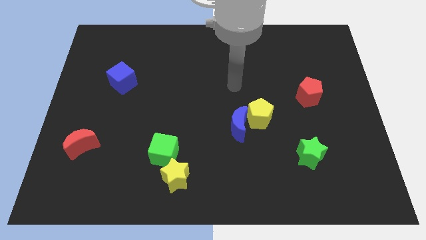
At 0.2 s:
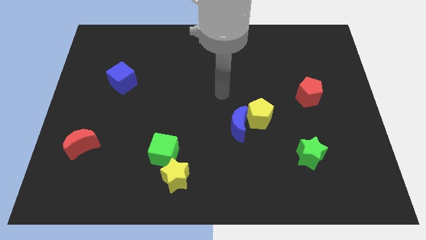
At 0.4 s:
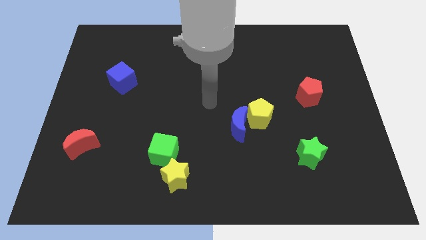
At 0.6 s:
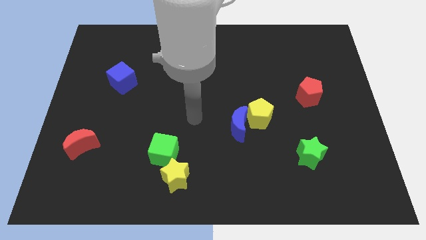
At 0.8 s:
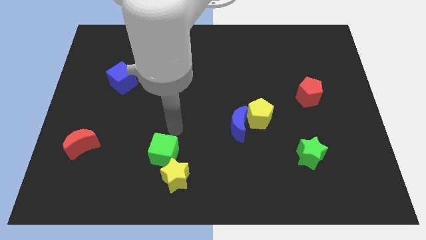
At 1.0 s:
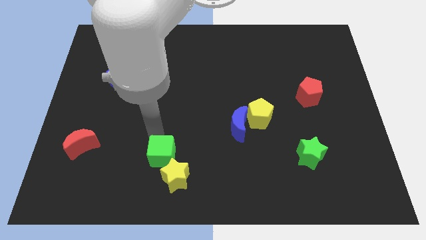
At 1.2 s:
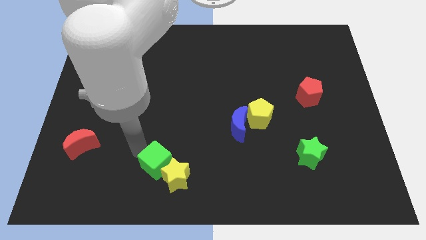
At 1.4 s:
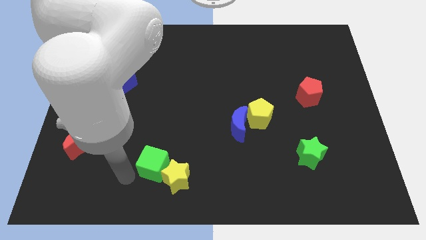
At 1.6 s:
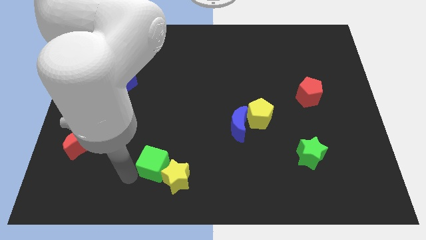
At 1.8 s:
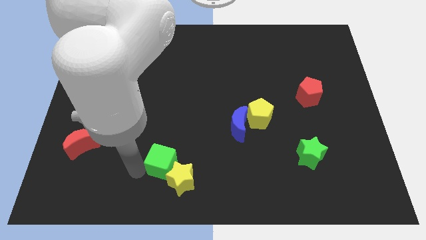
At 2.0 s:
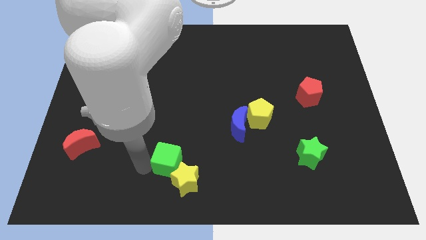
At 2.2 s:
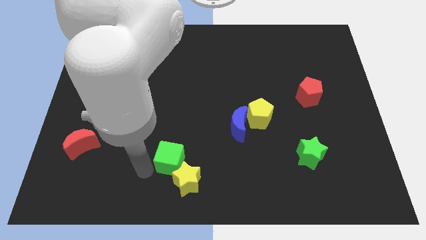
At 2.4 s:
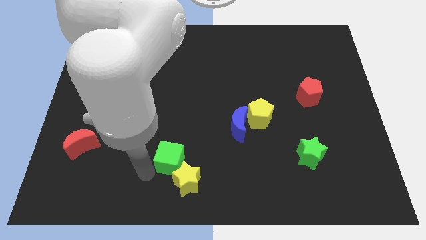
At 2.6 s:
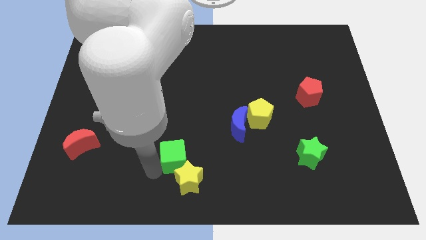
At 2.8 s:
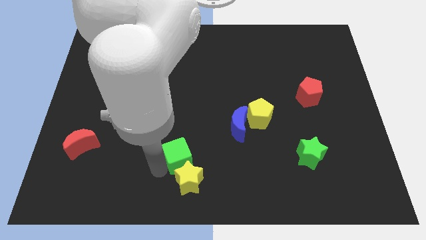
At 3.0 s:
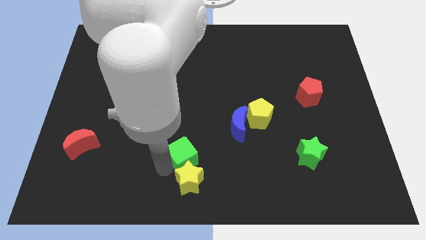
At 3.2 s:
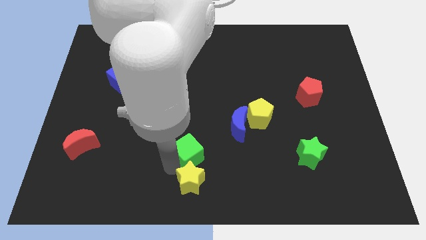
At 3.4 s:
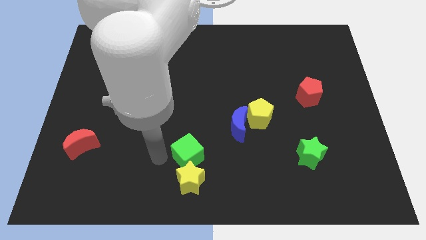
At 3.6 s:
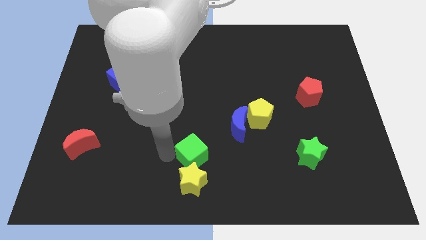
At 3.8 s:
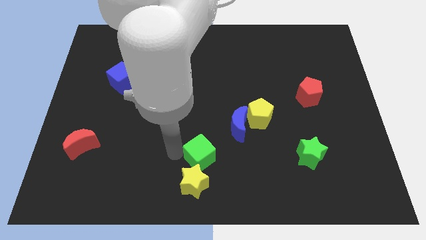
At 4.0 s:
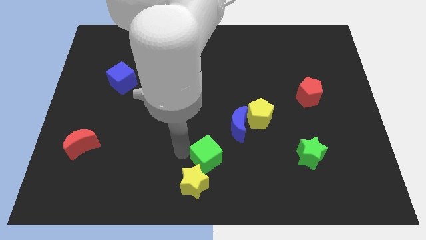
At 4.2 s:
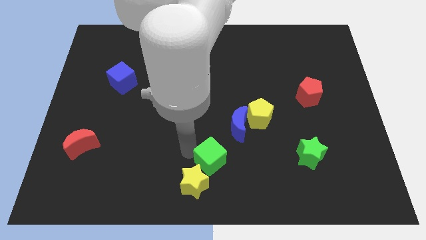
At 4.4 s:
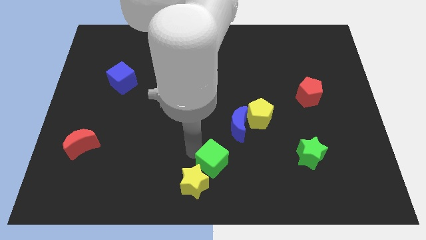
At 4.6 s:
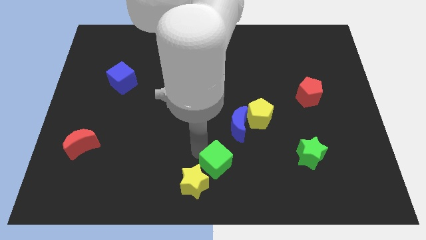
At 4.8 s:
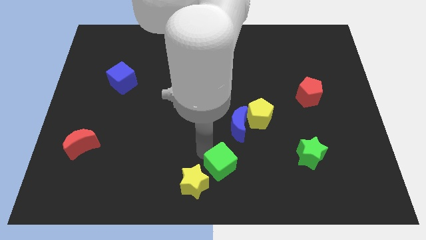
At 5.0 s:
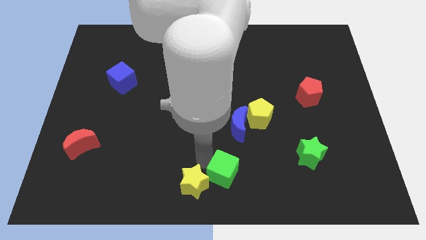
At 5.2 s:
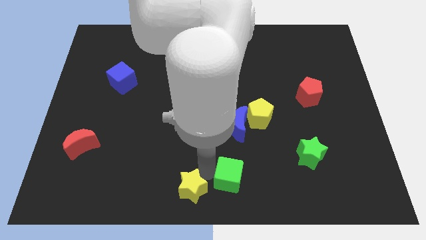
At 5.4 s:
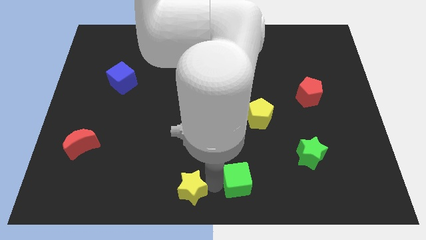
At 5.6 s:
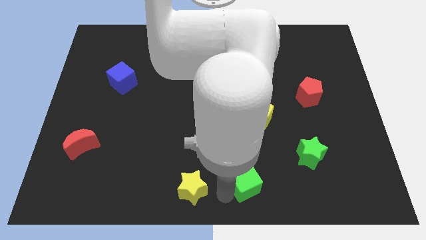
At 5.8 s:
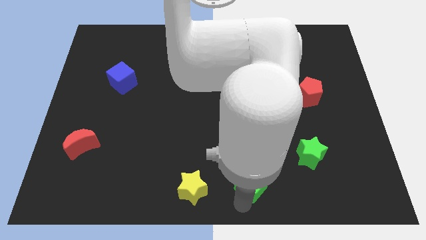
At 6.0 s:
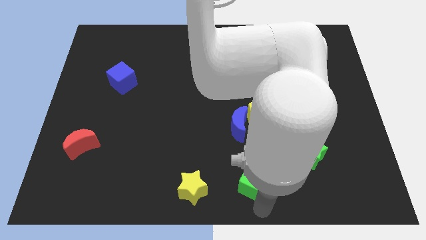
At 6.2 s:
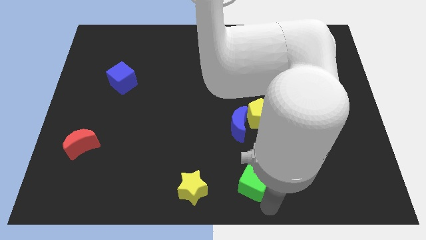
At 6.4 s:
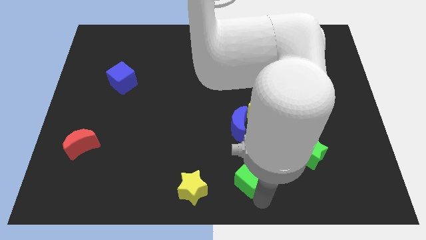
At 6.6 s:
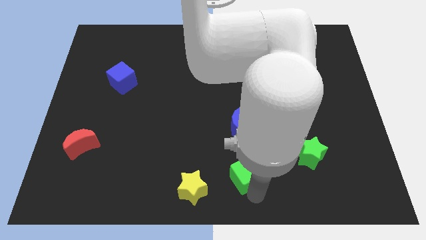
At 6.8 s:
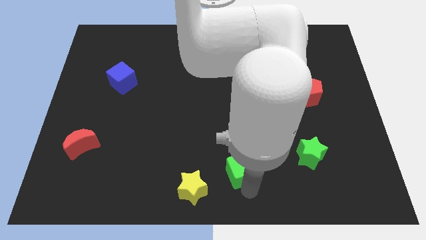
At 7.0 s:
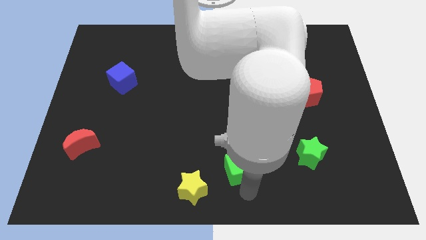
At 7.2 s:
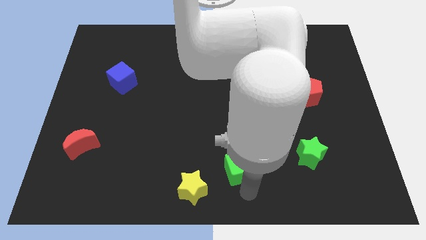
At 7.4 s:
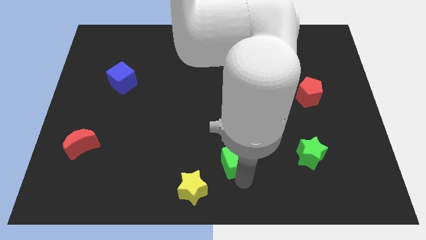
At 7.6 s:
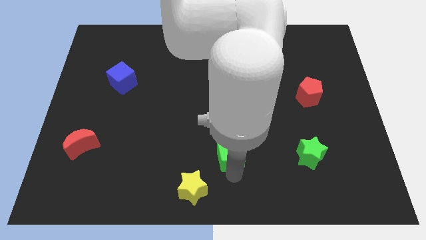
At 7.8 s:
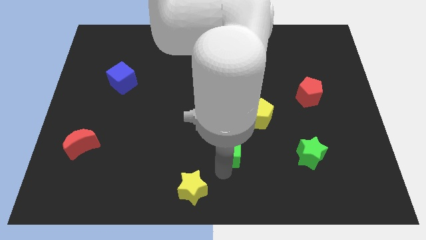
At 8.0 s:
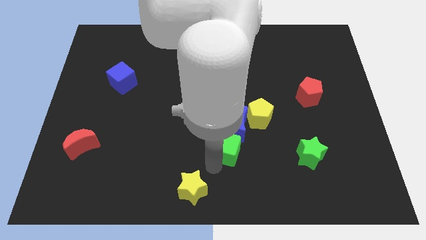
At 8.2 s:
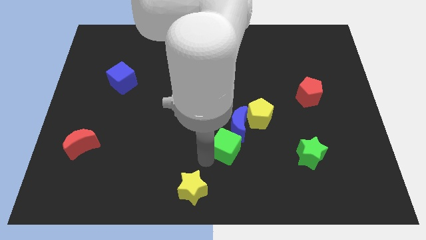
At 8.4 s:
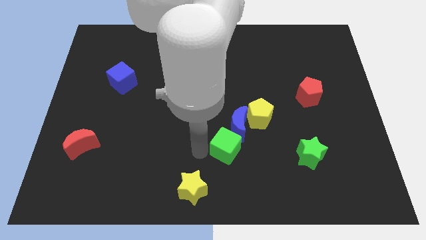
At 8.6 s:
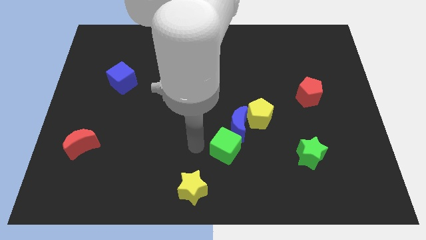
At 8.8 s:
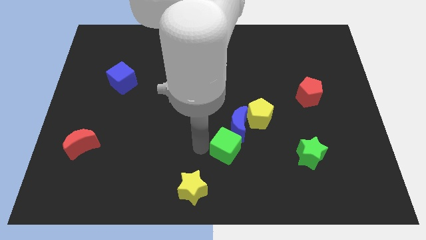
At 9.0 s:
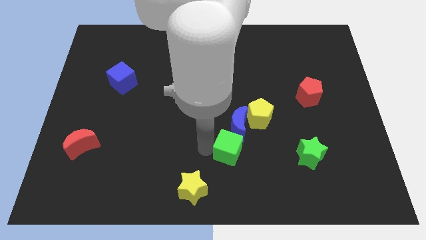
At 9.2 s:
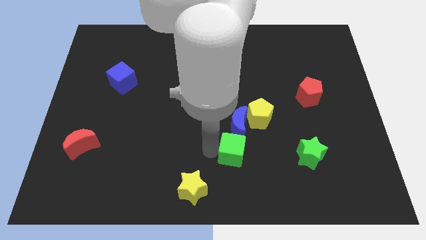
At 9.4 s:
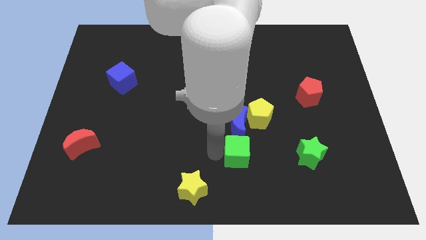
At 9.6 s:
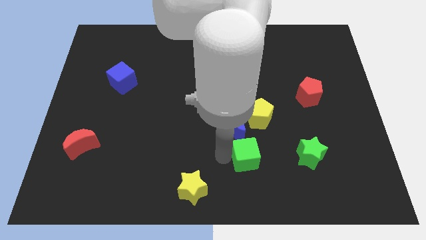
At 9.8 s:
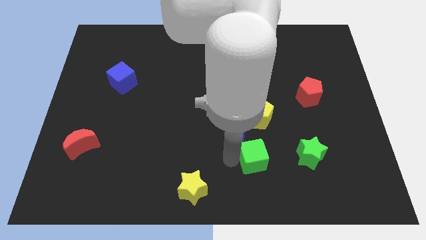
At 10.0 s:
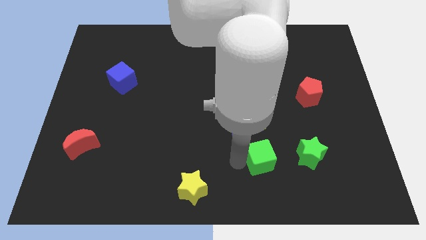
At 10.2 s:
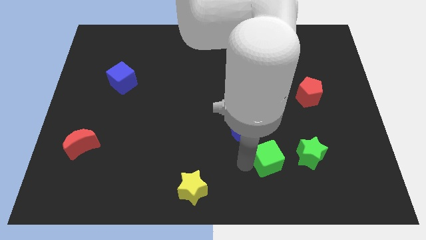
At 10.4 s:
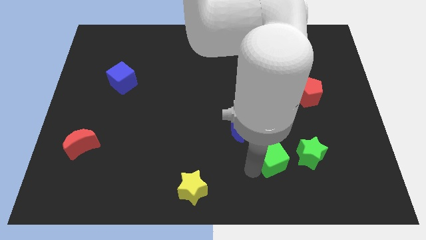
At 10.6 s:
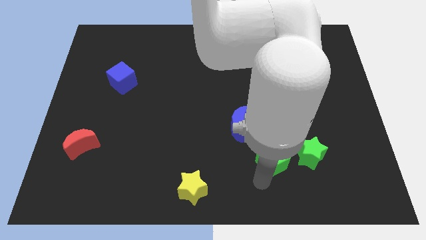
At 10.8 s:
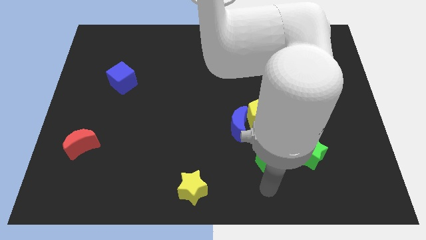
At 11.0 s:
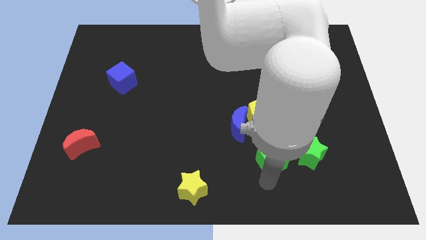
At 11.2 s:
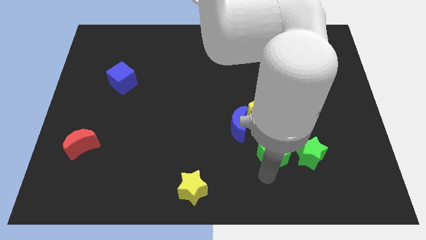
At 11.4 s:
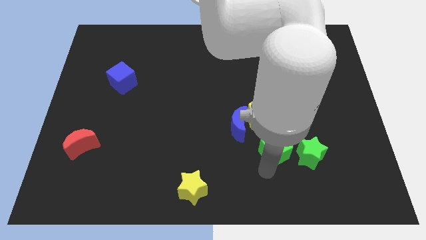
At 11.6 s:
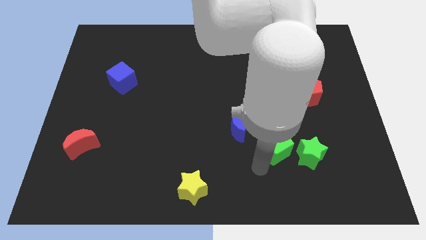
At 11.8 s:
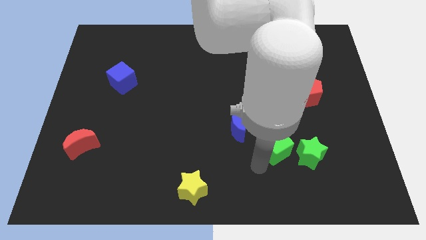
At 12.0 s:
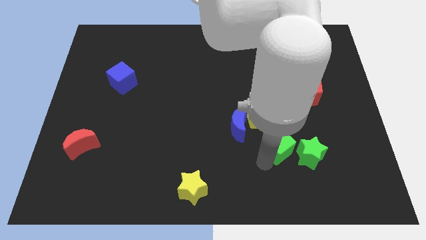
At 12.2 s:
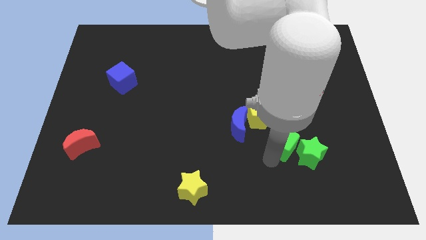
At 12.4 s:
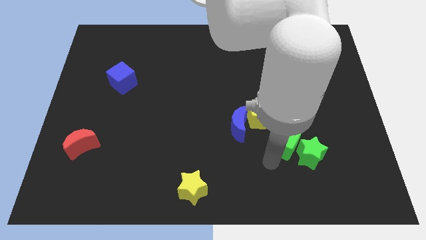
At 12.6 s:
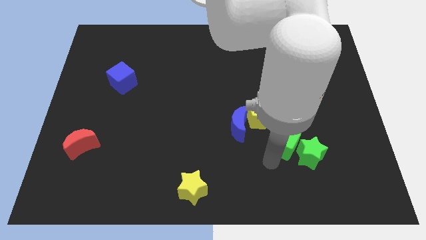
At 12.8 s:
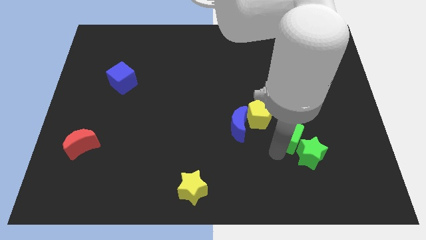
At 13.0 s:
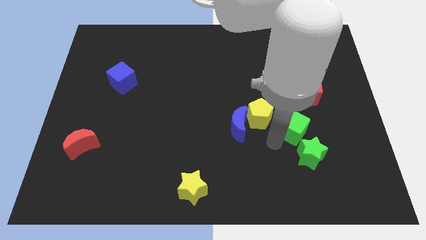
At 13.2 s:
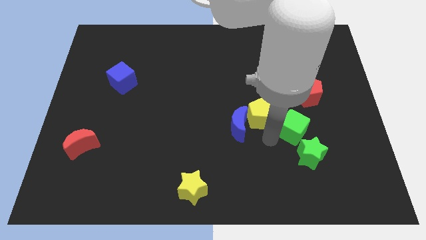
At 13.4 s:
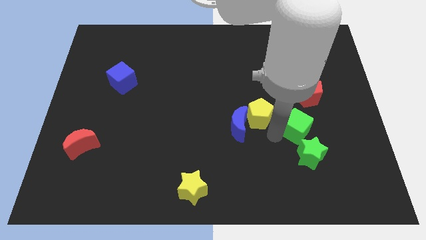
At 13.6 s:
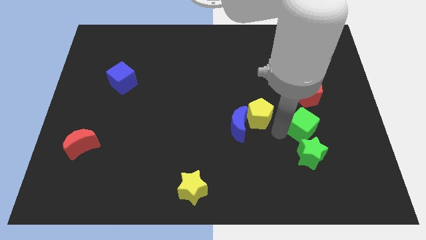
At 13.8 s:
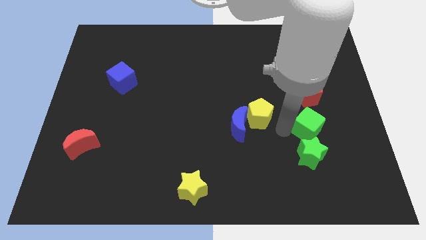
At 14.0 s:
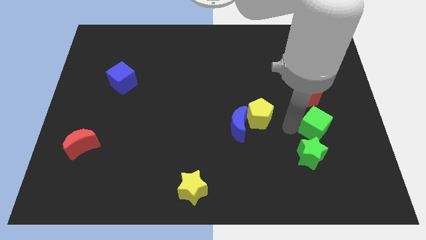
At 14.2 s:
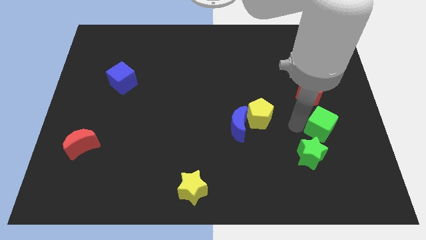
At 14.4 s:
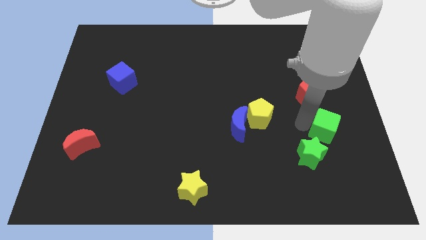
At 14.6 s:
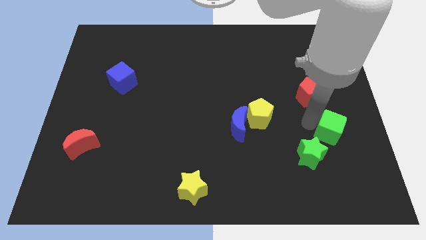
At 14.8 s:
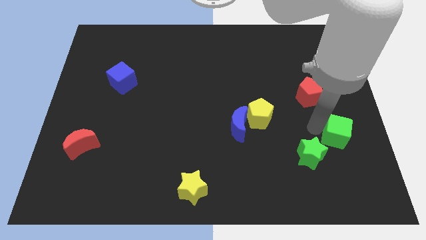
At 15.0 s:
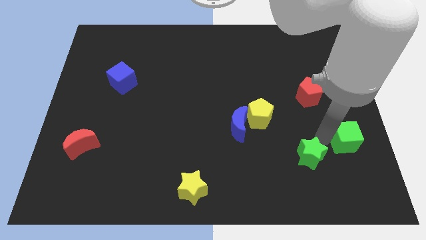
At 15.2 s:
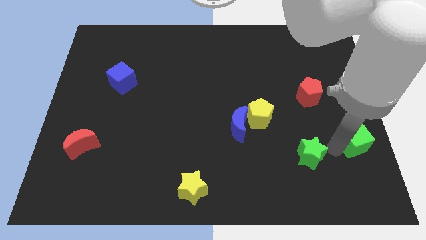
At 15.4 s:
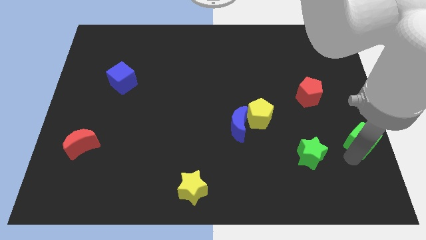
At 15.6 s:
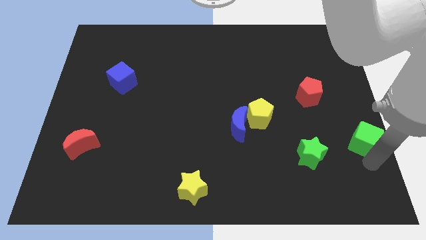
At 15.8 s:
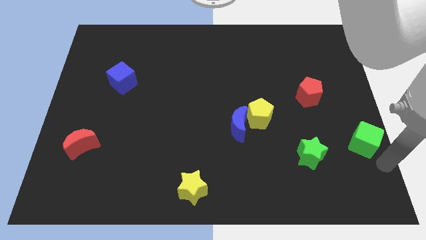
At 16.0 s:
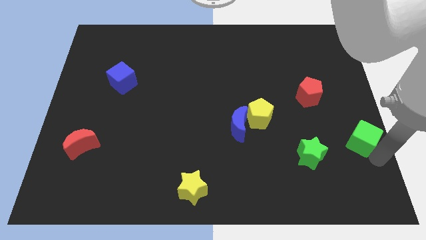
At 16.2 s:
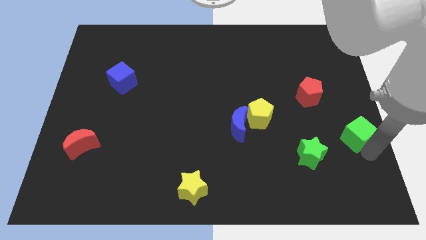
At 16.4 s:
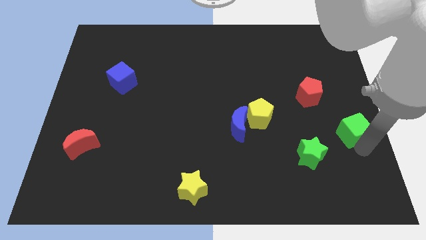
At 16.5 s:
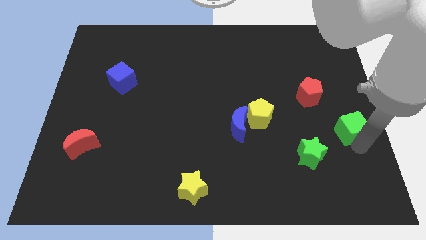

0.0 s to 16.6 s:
put the green cube to the bottom right side of the red pentagon

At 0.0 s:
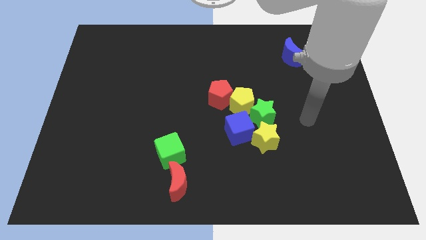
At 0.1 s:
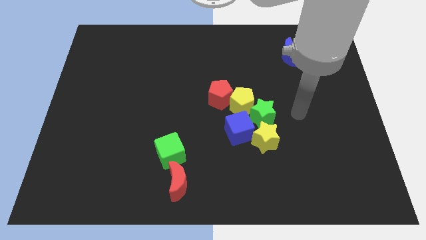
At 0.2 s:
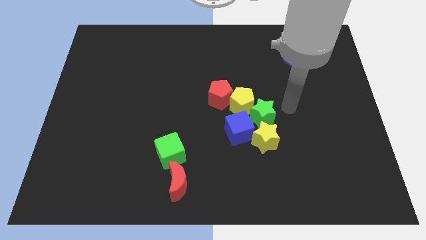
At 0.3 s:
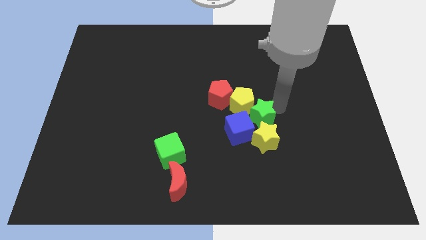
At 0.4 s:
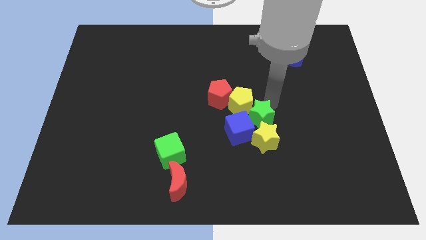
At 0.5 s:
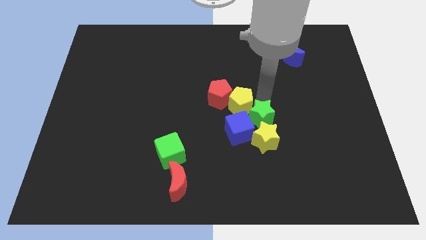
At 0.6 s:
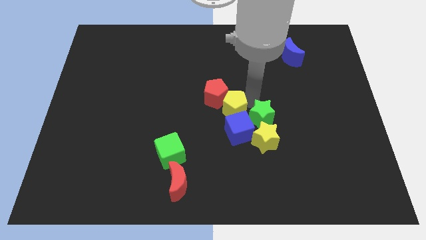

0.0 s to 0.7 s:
put the blue cube diagonally down and to the right of the yellow pentagon
